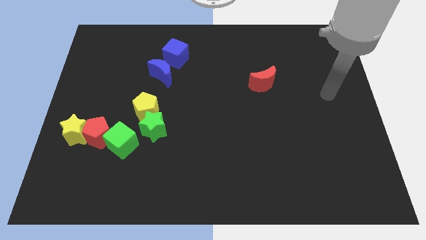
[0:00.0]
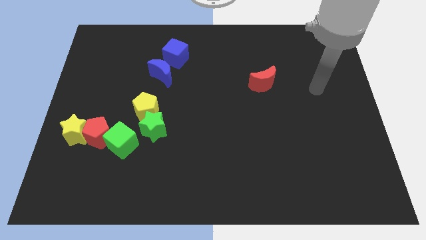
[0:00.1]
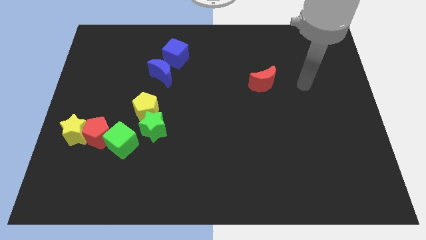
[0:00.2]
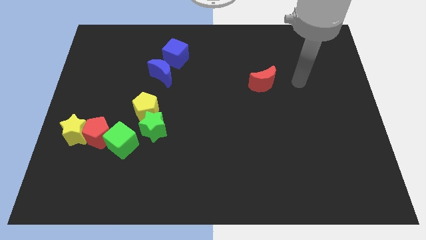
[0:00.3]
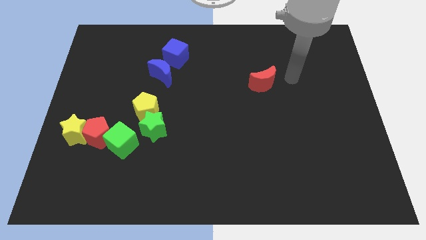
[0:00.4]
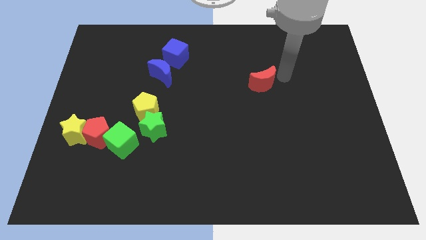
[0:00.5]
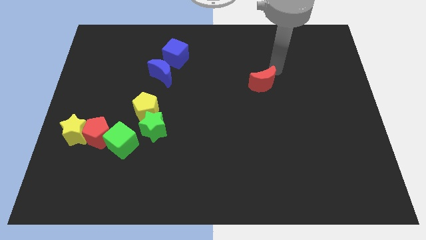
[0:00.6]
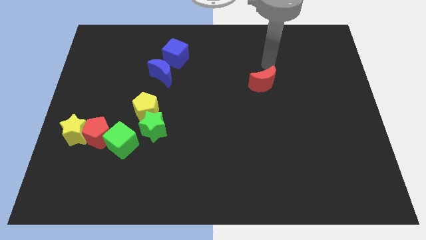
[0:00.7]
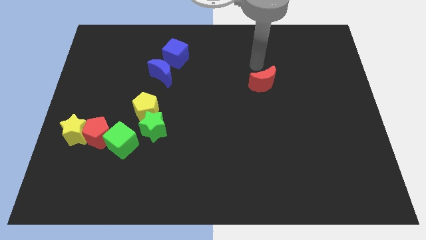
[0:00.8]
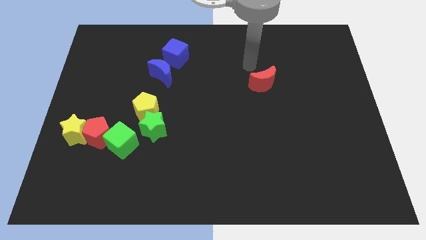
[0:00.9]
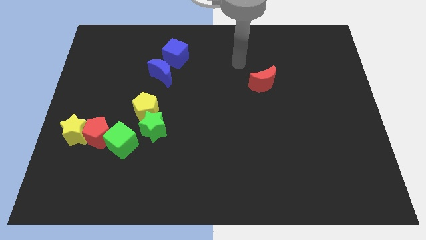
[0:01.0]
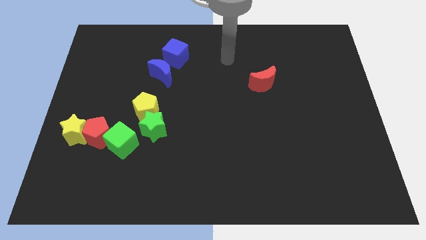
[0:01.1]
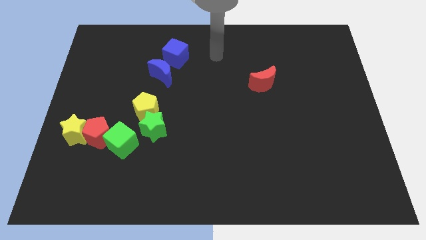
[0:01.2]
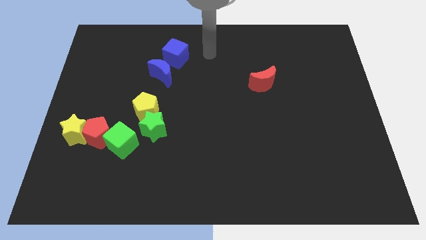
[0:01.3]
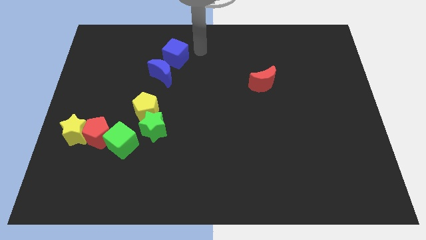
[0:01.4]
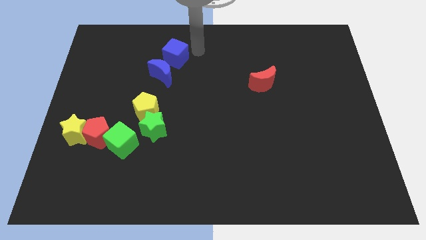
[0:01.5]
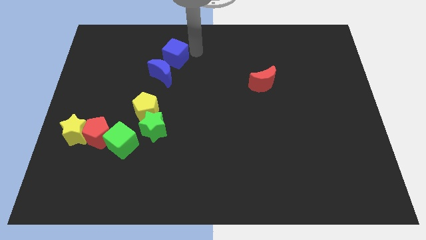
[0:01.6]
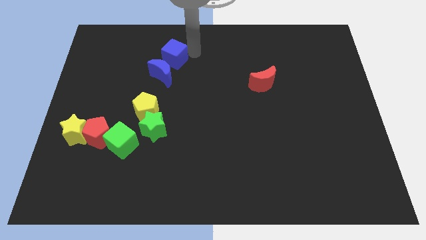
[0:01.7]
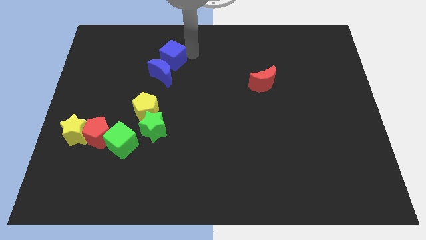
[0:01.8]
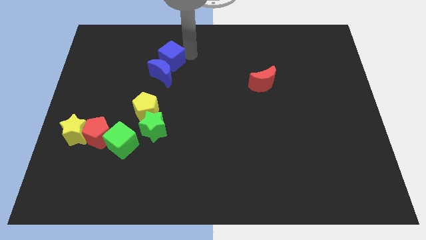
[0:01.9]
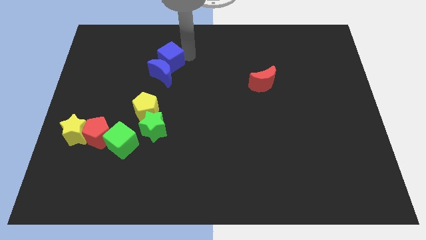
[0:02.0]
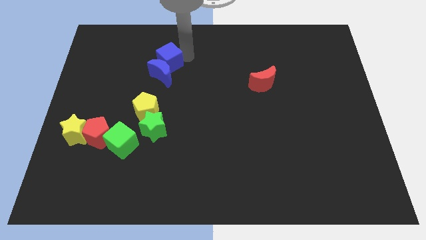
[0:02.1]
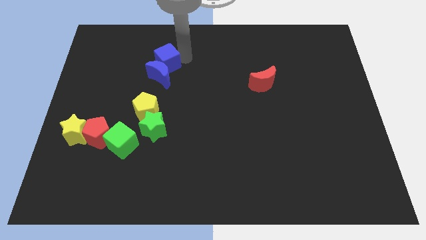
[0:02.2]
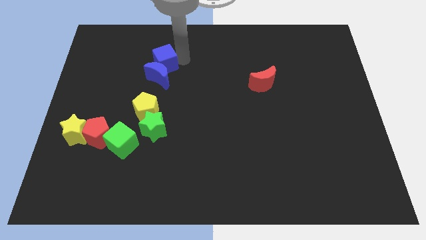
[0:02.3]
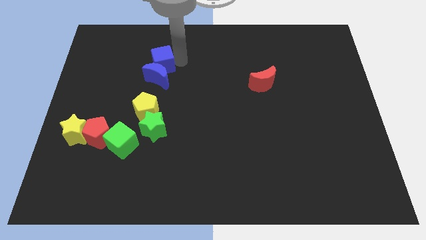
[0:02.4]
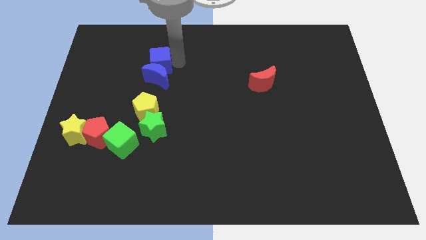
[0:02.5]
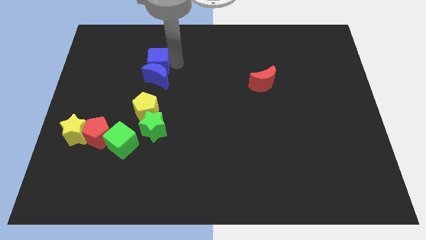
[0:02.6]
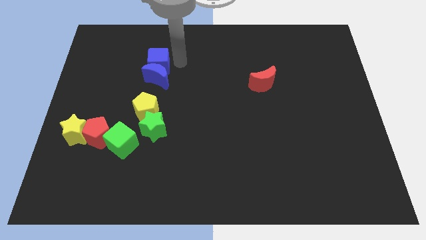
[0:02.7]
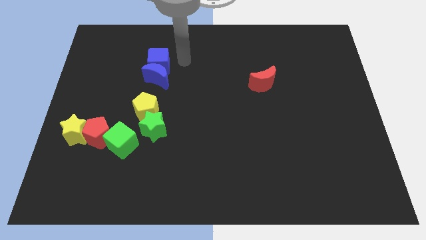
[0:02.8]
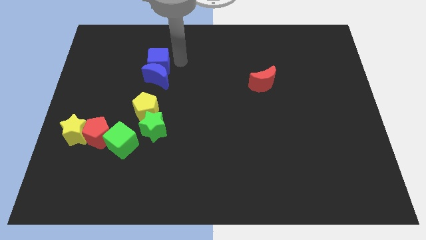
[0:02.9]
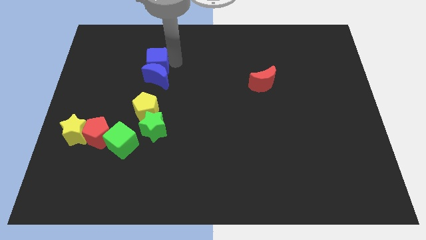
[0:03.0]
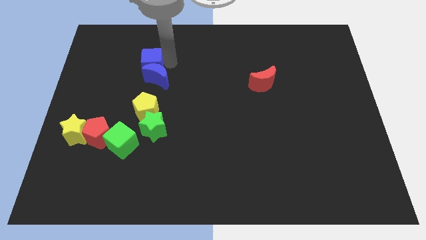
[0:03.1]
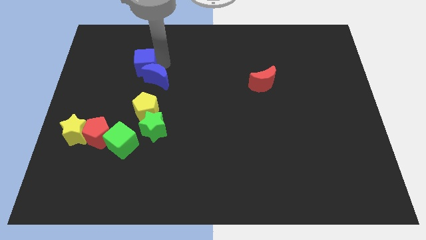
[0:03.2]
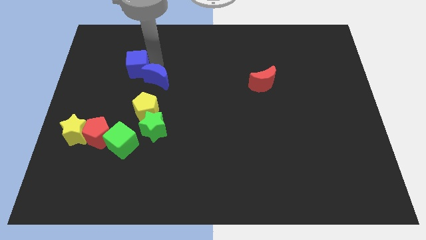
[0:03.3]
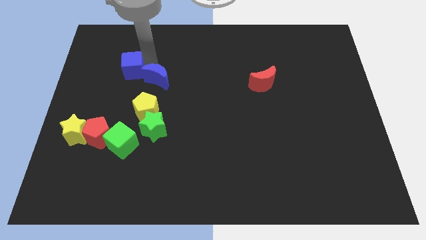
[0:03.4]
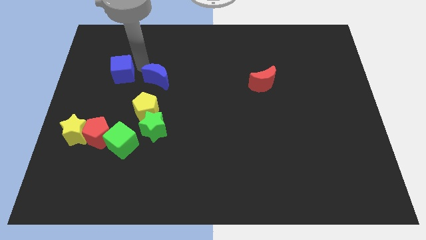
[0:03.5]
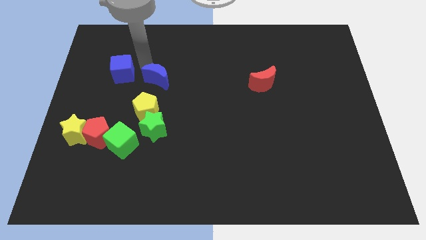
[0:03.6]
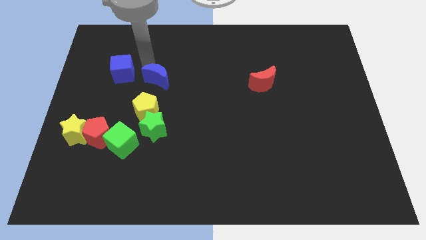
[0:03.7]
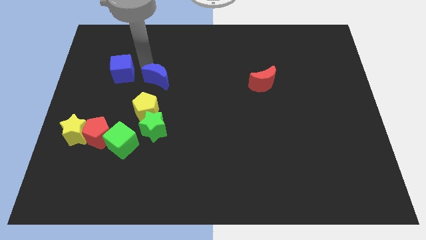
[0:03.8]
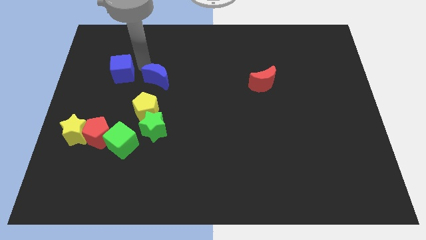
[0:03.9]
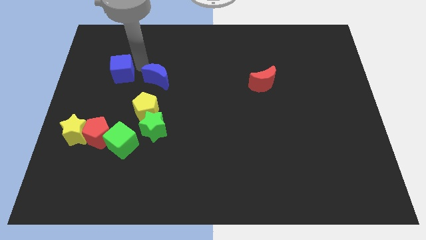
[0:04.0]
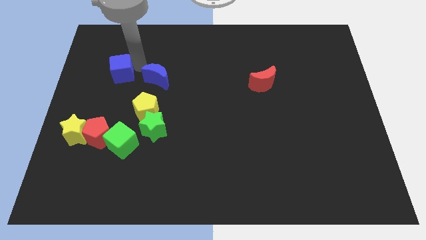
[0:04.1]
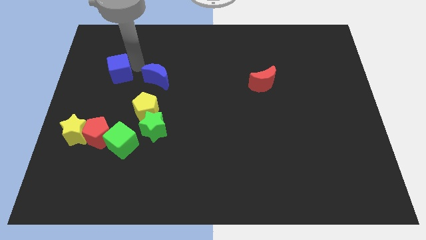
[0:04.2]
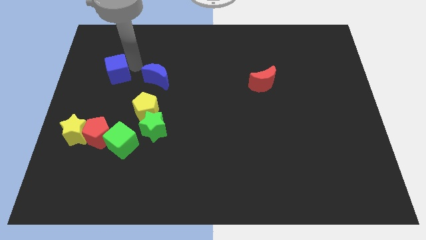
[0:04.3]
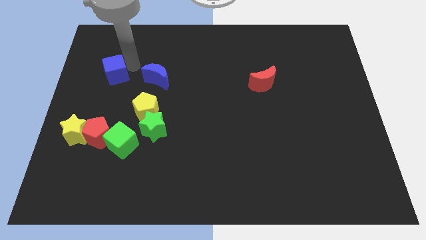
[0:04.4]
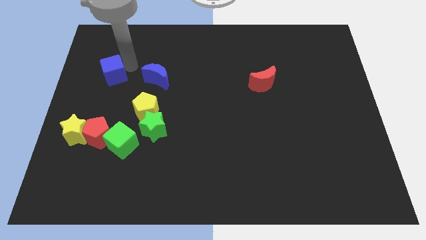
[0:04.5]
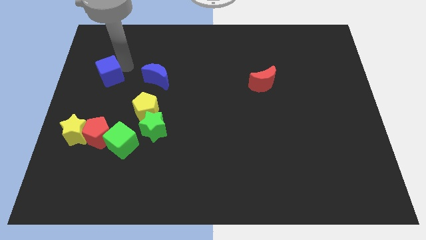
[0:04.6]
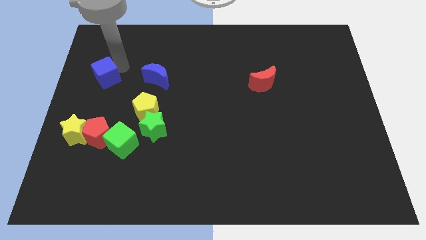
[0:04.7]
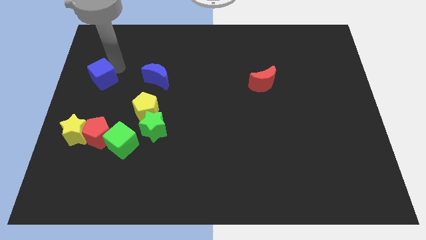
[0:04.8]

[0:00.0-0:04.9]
slide the blue cube to the left side

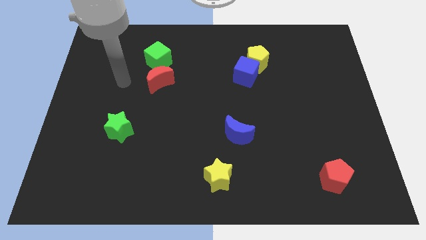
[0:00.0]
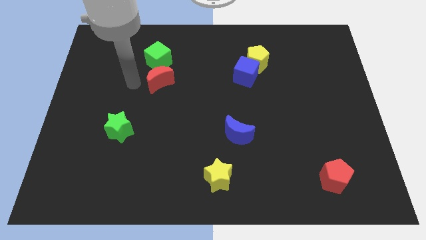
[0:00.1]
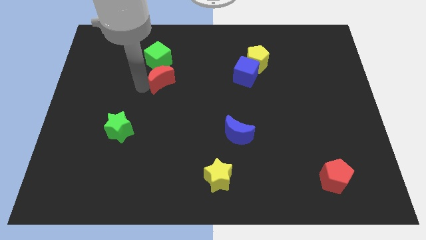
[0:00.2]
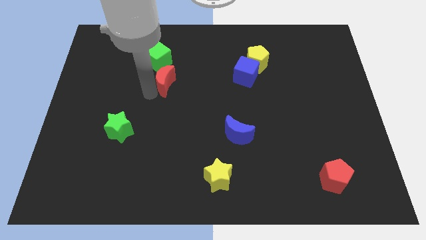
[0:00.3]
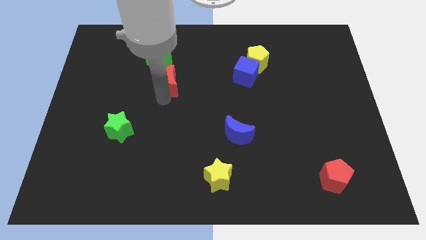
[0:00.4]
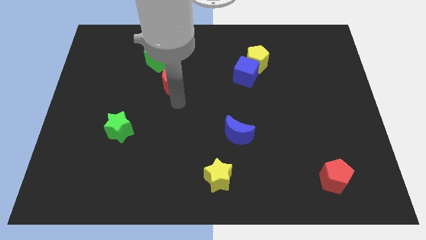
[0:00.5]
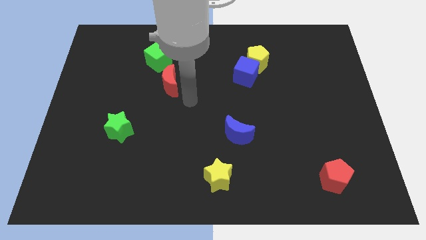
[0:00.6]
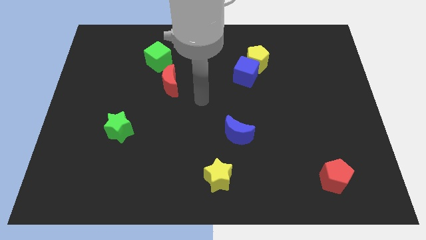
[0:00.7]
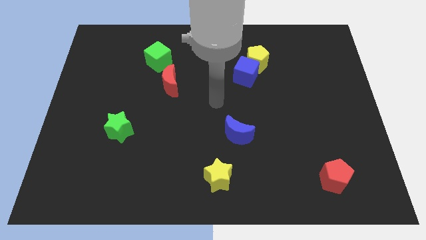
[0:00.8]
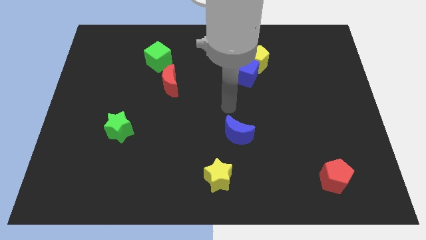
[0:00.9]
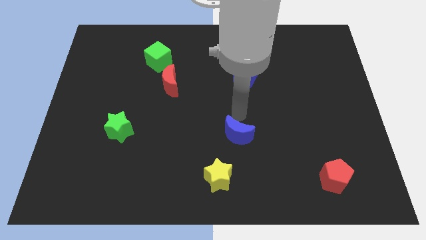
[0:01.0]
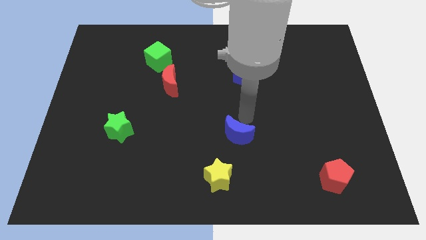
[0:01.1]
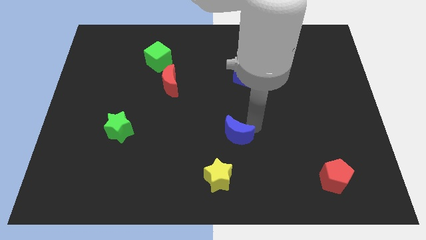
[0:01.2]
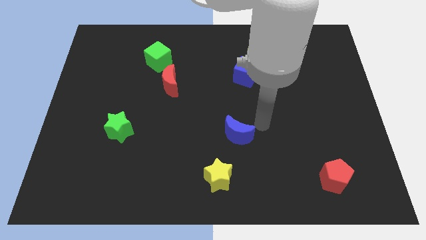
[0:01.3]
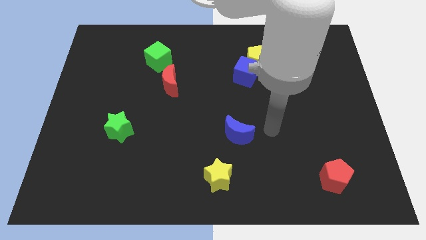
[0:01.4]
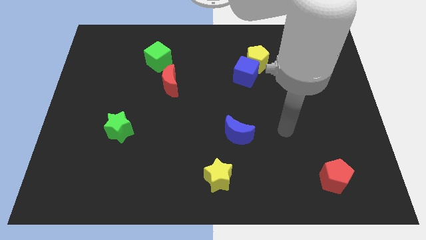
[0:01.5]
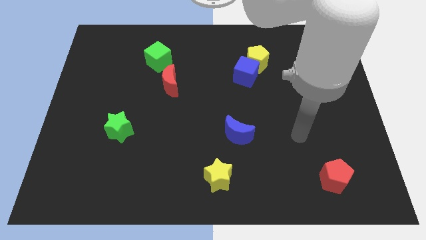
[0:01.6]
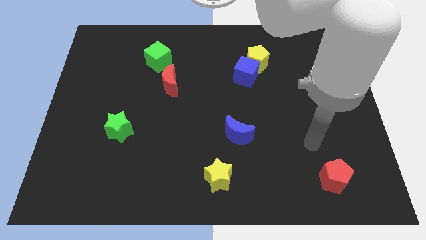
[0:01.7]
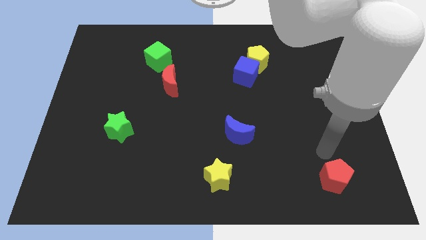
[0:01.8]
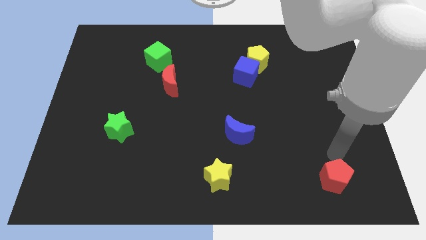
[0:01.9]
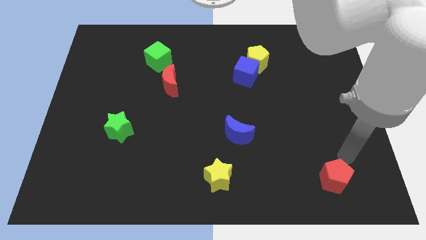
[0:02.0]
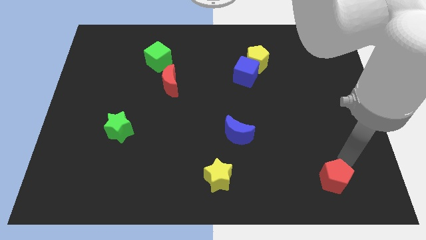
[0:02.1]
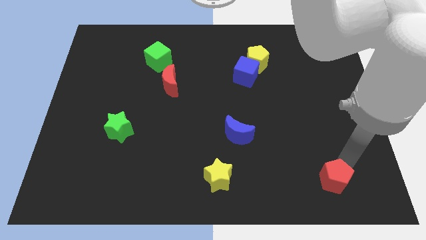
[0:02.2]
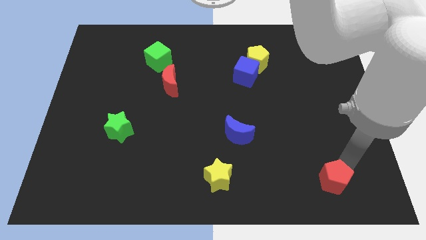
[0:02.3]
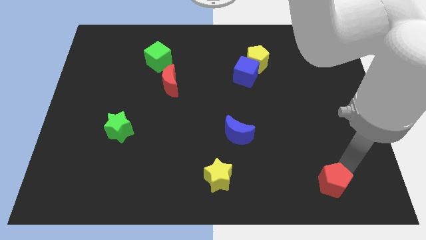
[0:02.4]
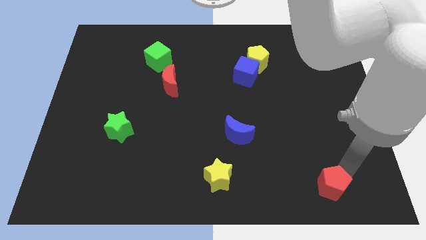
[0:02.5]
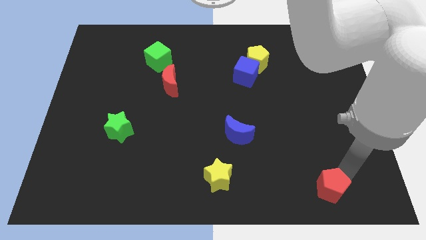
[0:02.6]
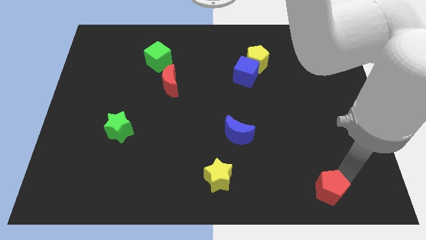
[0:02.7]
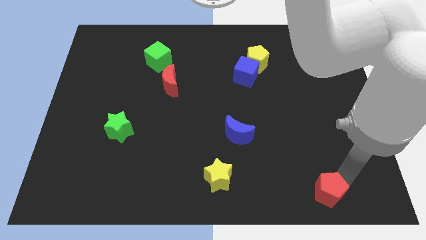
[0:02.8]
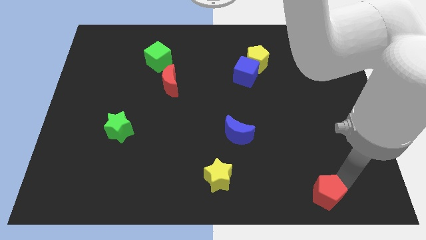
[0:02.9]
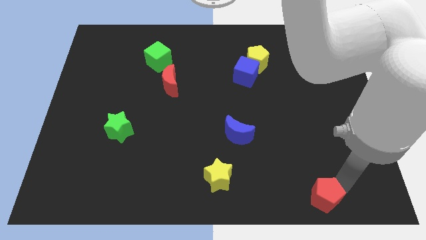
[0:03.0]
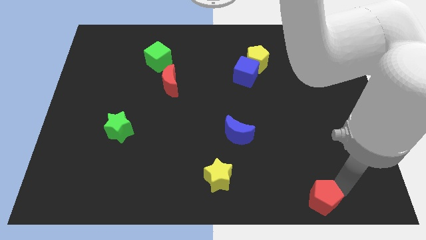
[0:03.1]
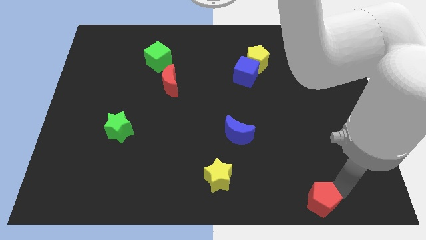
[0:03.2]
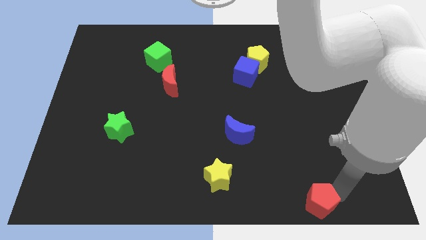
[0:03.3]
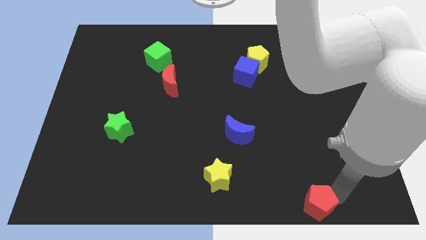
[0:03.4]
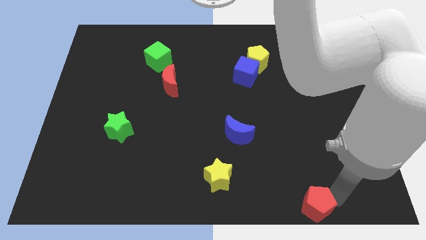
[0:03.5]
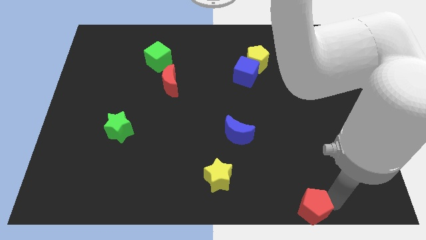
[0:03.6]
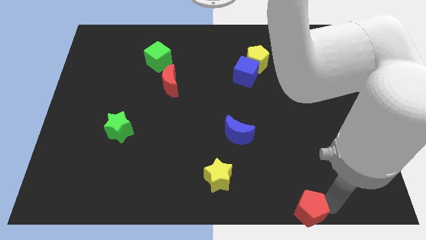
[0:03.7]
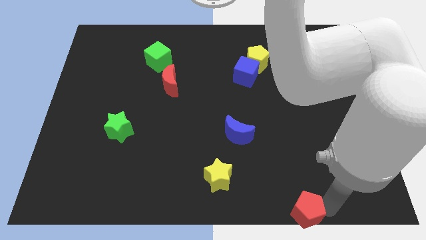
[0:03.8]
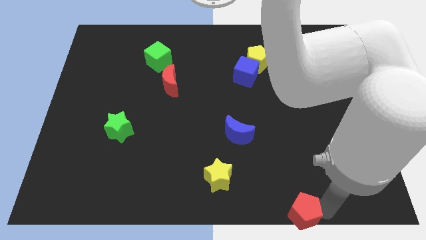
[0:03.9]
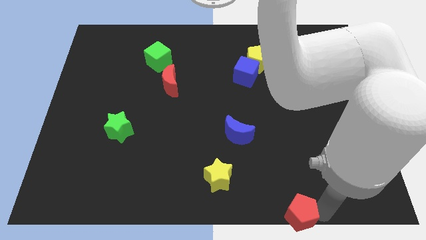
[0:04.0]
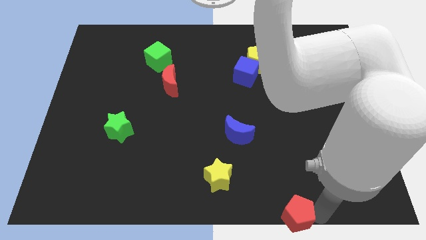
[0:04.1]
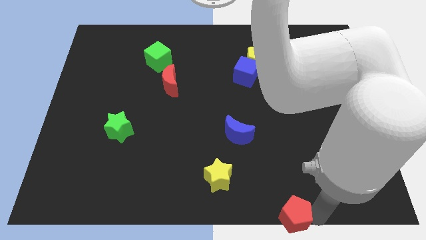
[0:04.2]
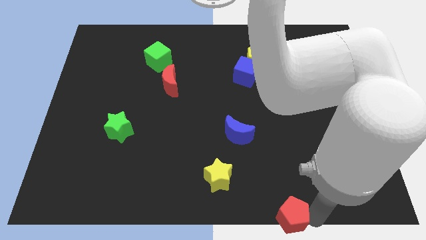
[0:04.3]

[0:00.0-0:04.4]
push the red pentagon to the bottom
